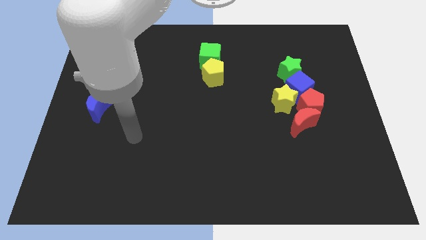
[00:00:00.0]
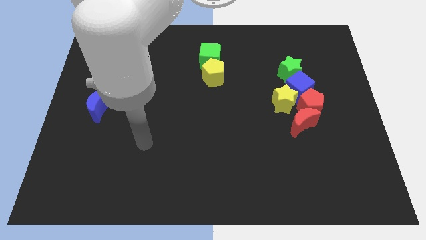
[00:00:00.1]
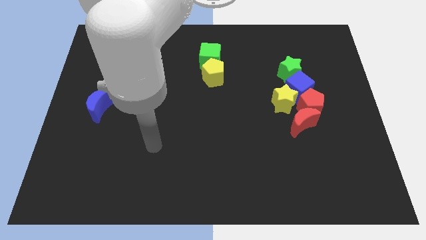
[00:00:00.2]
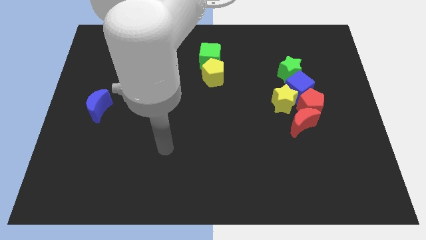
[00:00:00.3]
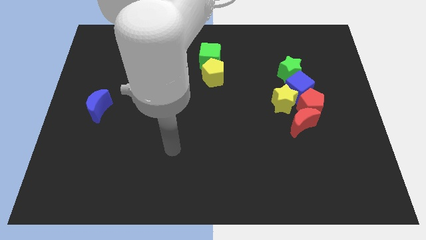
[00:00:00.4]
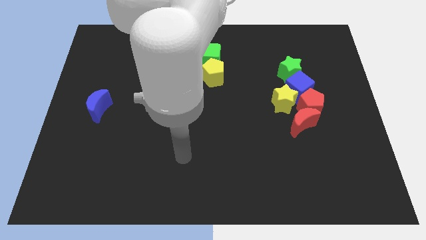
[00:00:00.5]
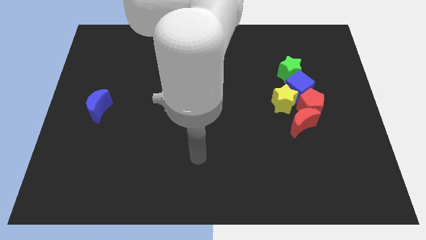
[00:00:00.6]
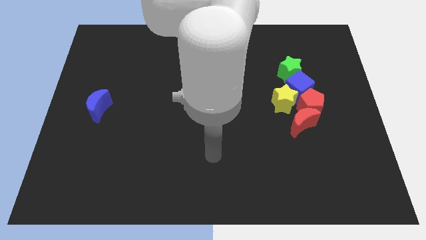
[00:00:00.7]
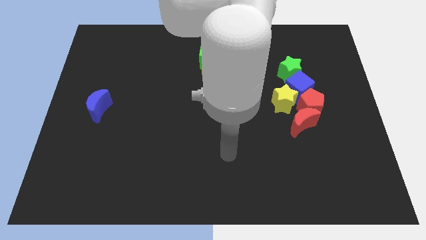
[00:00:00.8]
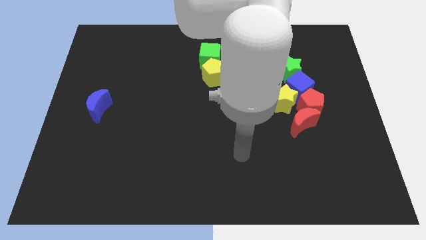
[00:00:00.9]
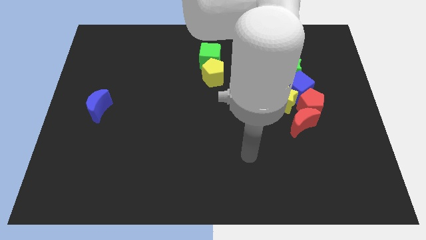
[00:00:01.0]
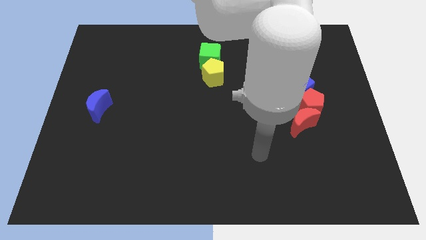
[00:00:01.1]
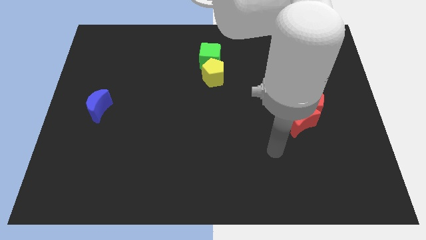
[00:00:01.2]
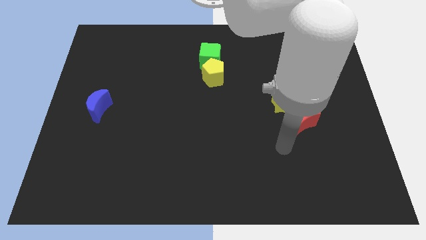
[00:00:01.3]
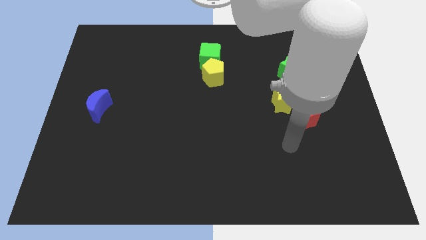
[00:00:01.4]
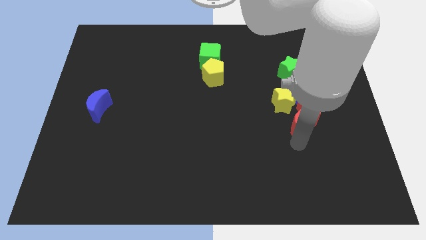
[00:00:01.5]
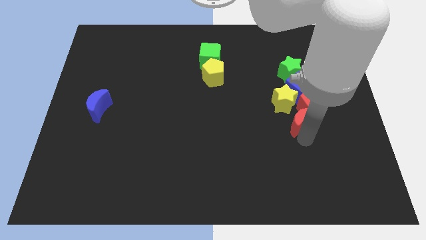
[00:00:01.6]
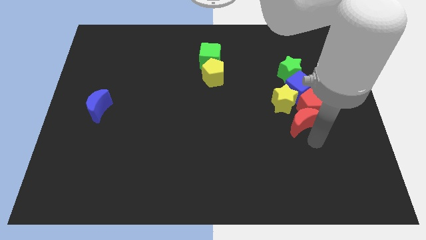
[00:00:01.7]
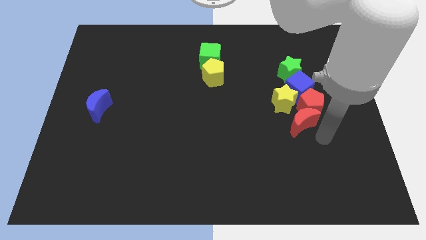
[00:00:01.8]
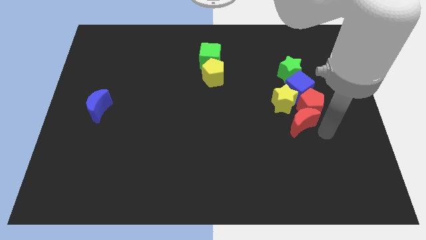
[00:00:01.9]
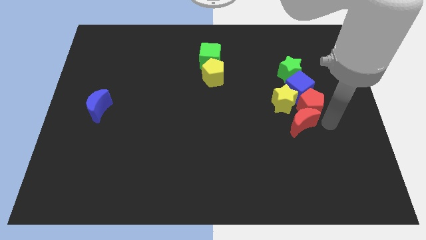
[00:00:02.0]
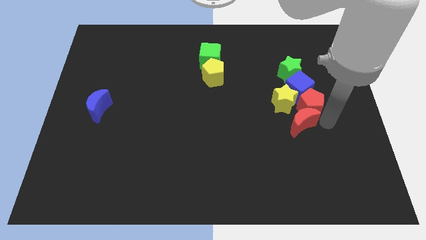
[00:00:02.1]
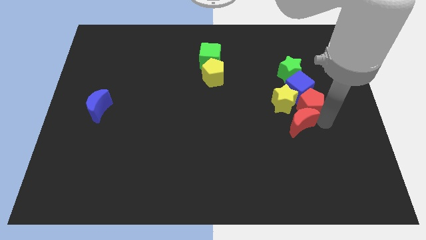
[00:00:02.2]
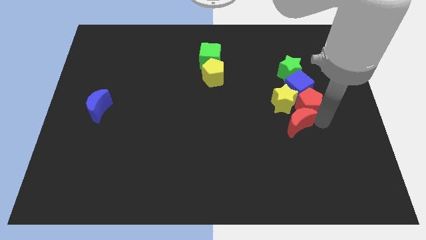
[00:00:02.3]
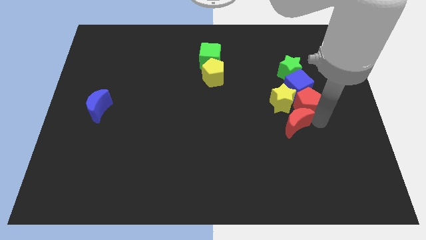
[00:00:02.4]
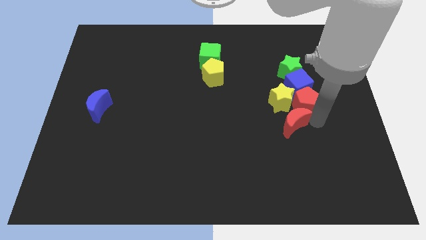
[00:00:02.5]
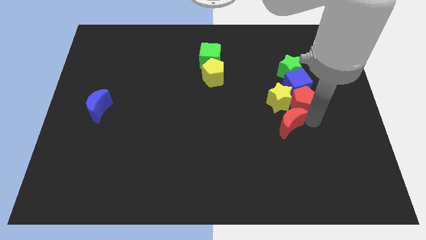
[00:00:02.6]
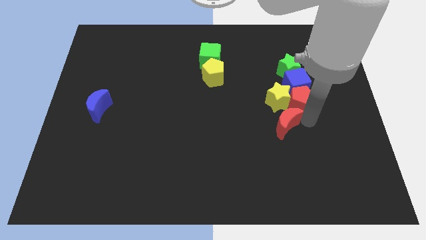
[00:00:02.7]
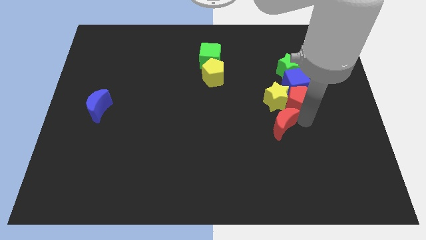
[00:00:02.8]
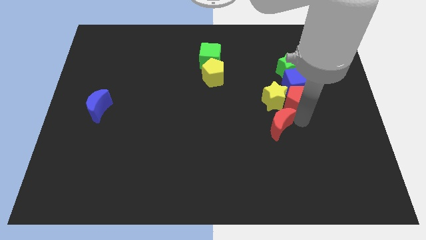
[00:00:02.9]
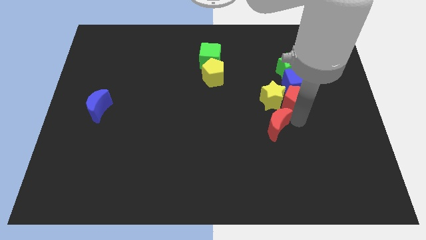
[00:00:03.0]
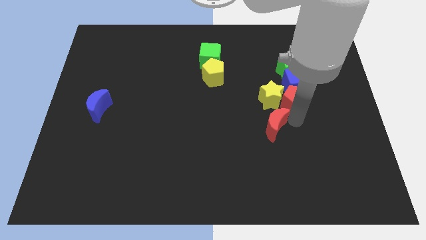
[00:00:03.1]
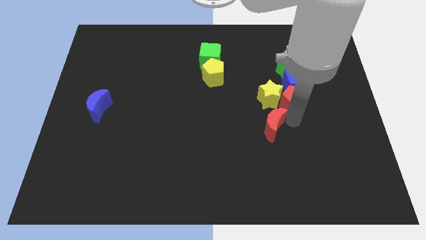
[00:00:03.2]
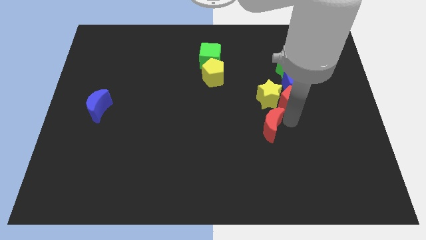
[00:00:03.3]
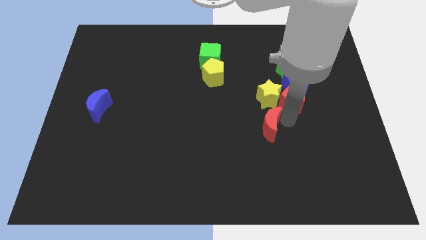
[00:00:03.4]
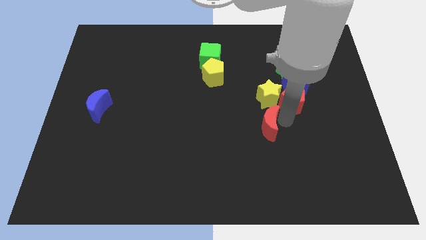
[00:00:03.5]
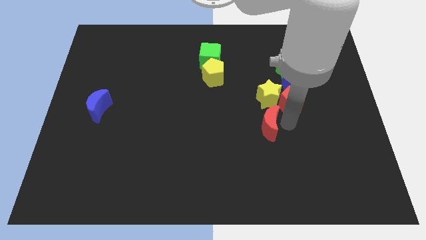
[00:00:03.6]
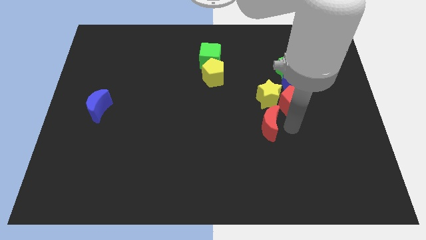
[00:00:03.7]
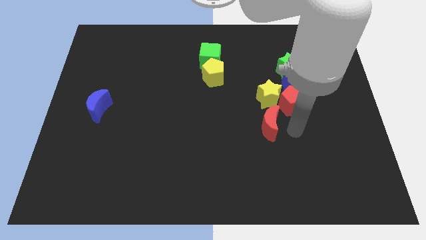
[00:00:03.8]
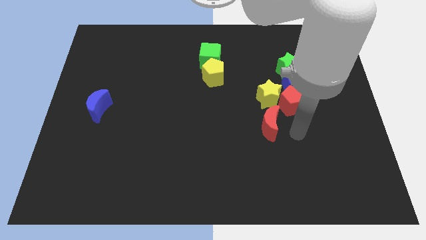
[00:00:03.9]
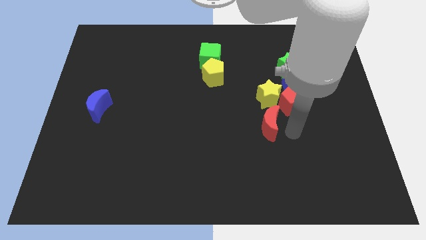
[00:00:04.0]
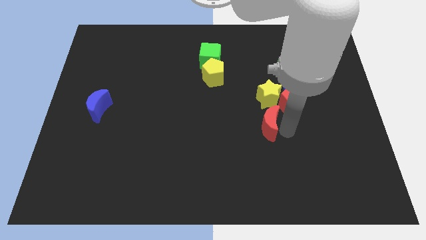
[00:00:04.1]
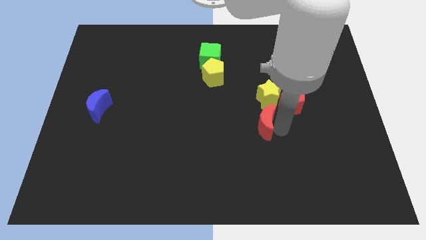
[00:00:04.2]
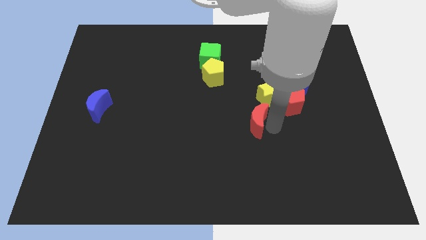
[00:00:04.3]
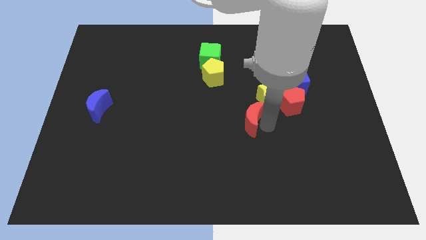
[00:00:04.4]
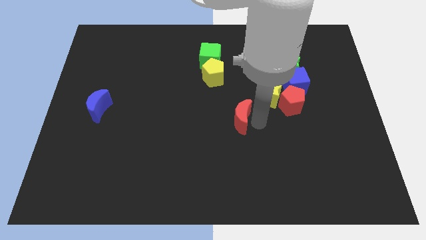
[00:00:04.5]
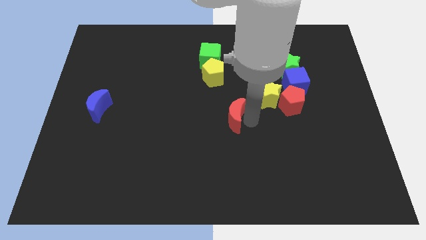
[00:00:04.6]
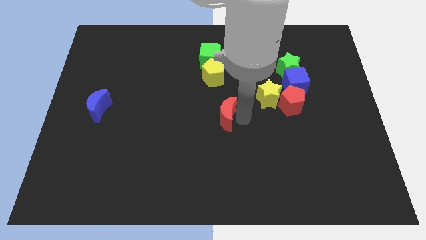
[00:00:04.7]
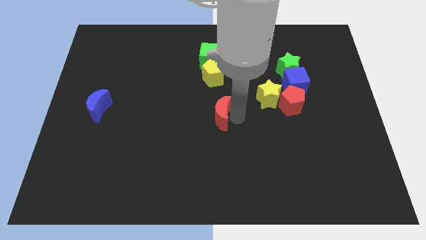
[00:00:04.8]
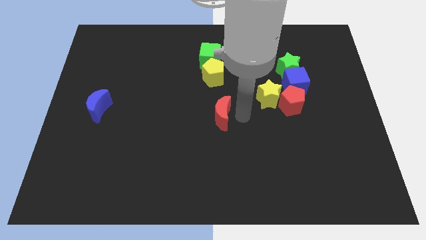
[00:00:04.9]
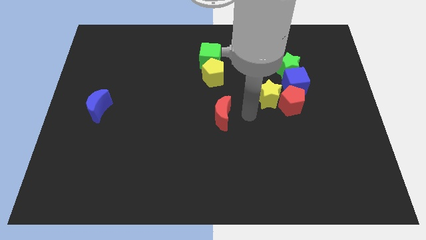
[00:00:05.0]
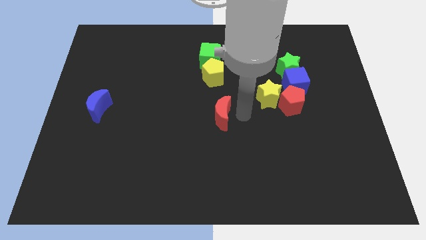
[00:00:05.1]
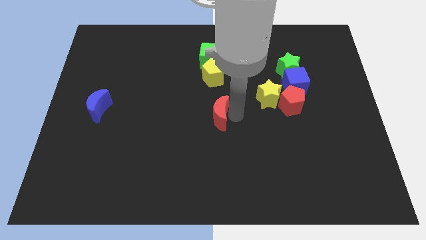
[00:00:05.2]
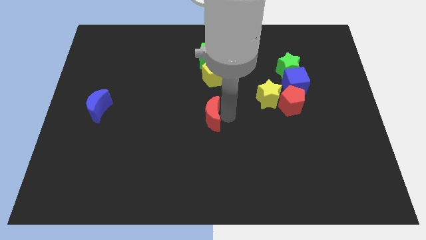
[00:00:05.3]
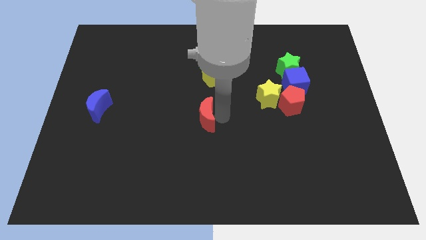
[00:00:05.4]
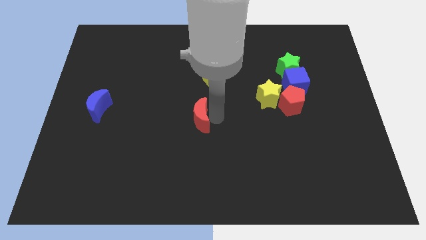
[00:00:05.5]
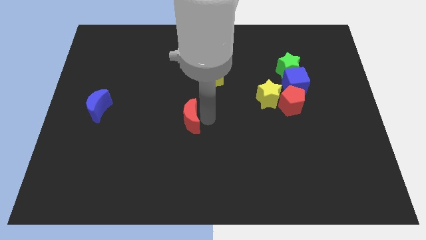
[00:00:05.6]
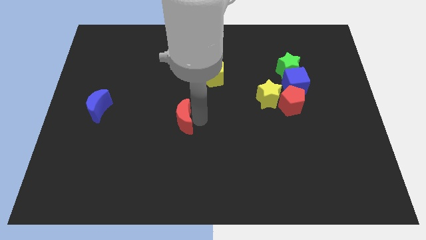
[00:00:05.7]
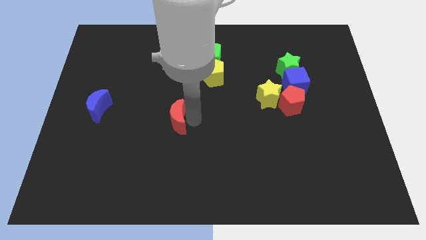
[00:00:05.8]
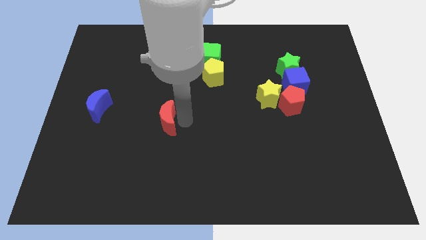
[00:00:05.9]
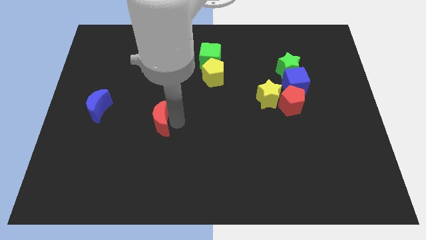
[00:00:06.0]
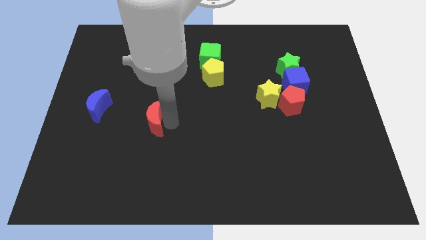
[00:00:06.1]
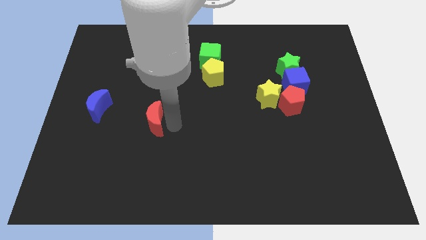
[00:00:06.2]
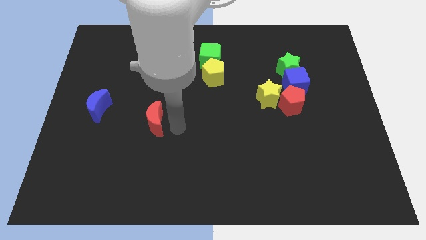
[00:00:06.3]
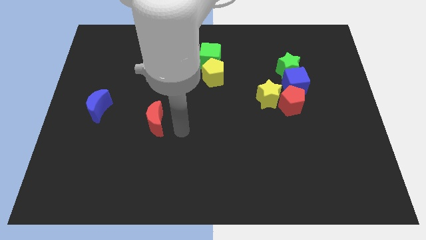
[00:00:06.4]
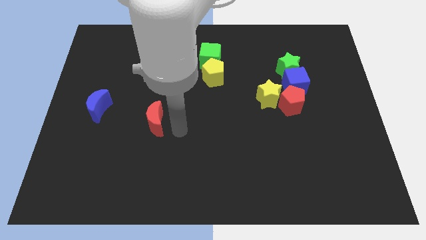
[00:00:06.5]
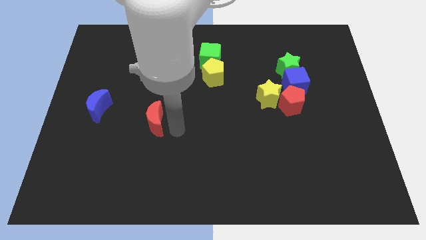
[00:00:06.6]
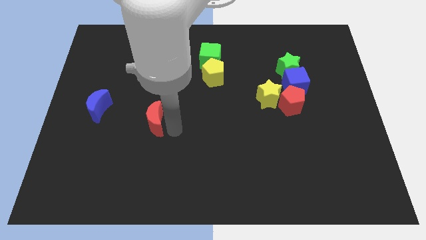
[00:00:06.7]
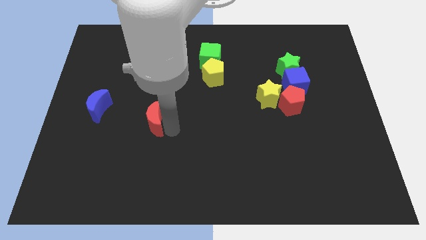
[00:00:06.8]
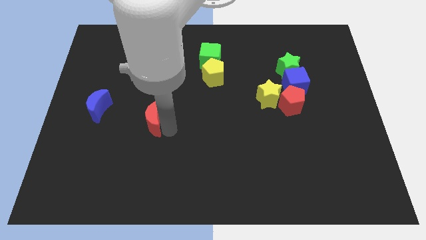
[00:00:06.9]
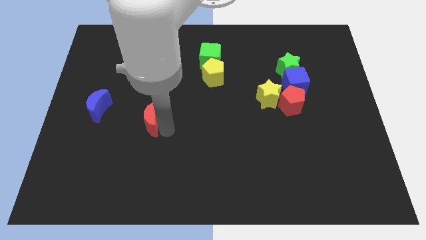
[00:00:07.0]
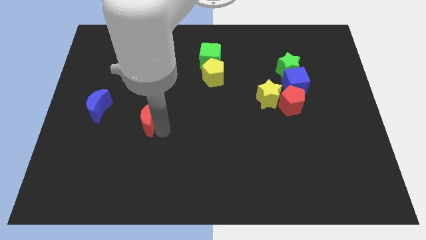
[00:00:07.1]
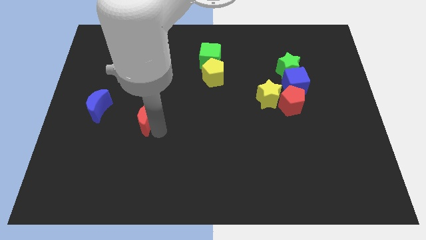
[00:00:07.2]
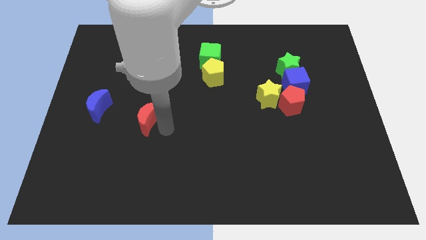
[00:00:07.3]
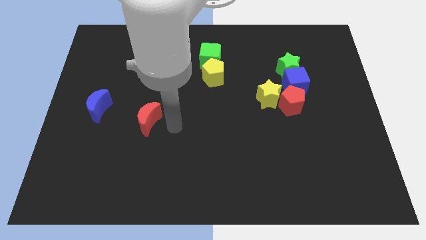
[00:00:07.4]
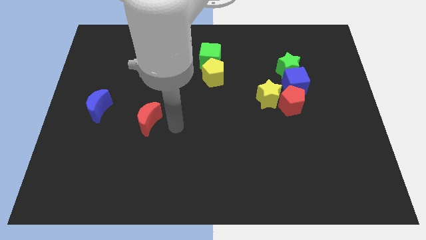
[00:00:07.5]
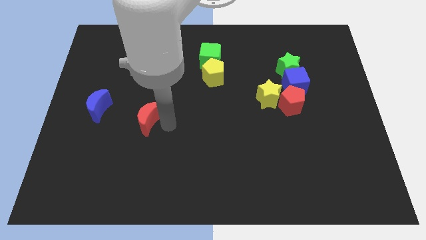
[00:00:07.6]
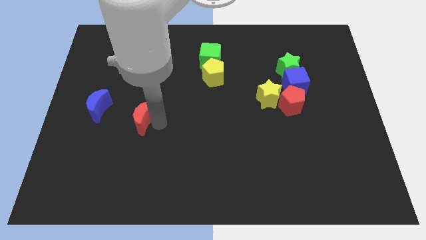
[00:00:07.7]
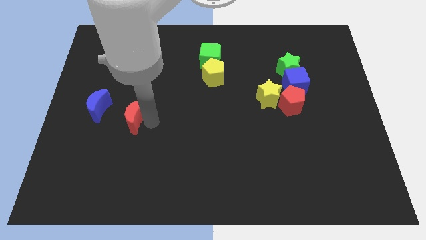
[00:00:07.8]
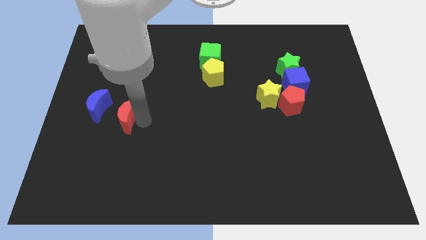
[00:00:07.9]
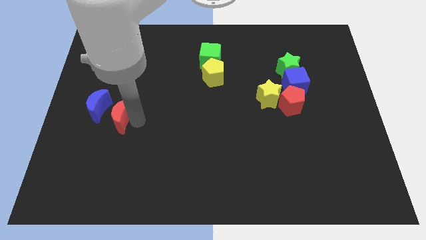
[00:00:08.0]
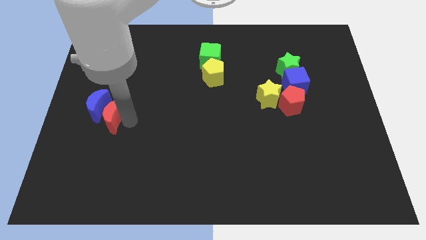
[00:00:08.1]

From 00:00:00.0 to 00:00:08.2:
push the red moon to the blue moon
